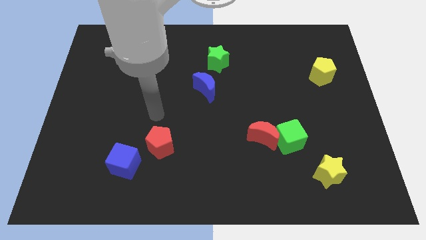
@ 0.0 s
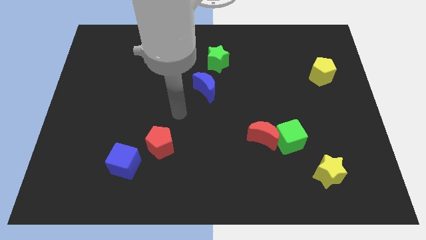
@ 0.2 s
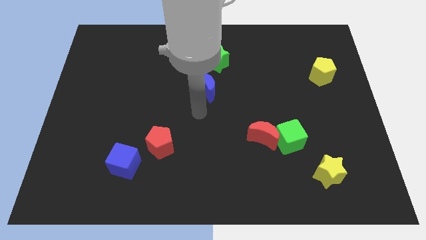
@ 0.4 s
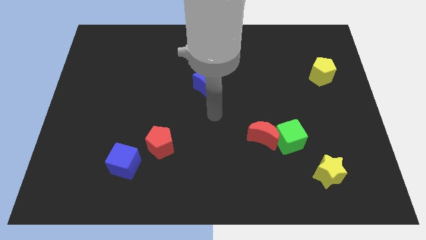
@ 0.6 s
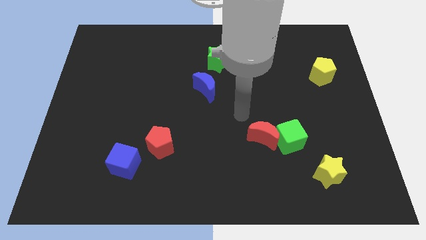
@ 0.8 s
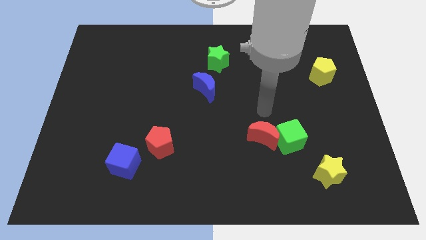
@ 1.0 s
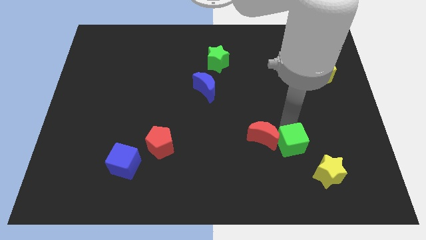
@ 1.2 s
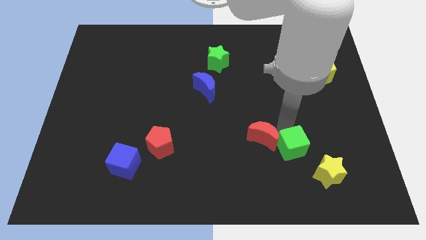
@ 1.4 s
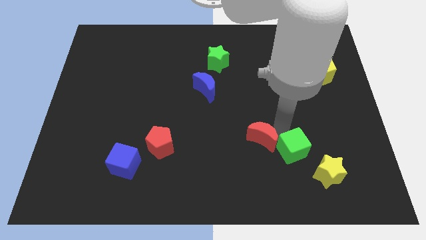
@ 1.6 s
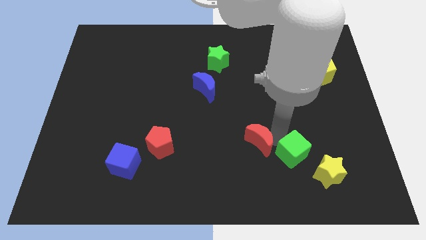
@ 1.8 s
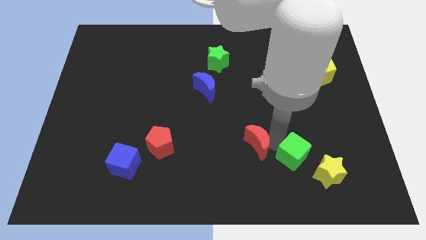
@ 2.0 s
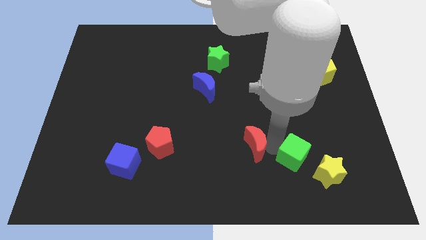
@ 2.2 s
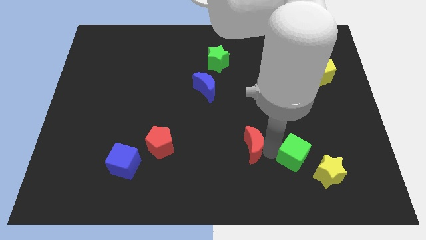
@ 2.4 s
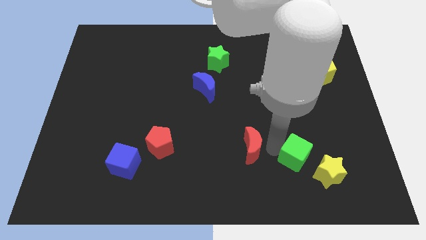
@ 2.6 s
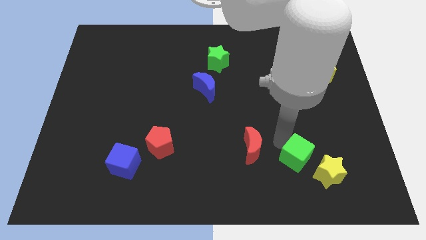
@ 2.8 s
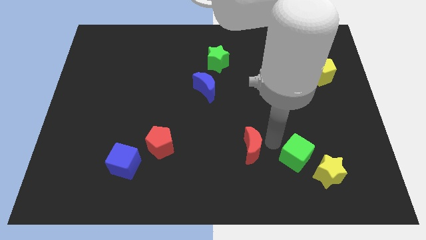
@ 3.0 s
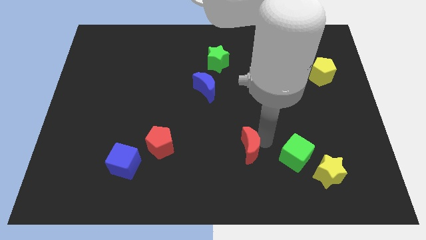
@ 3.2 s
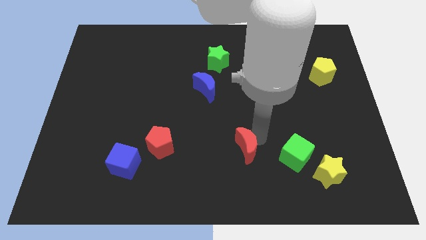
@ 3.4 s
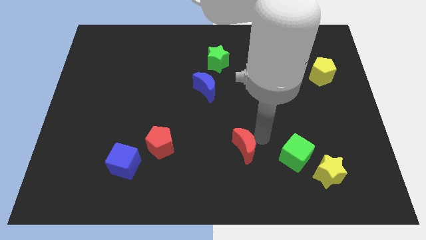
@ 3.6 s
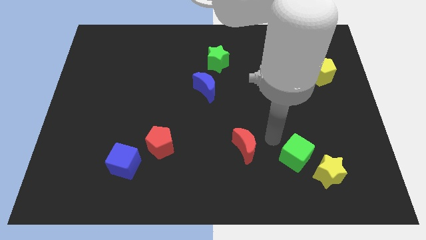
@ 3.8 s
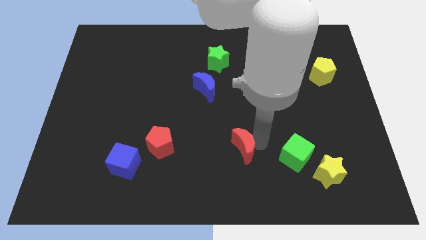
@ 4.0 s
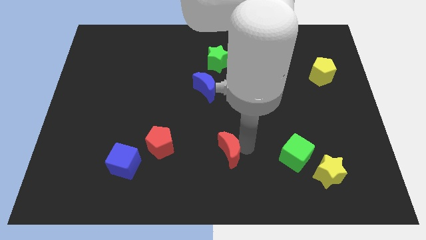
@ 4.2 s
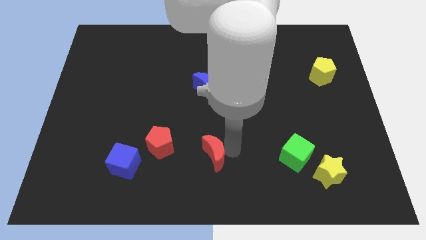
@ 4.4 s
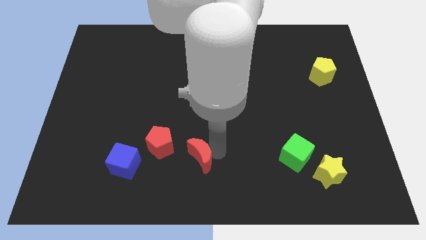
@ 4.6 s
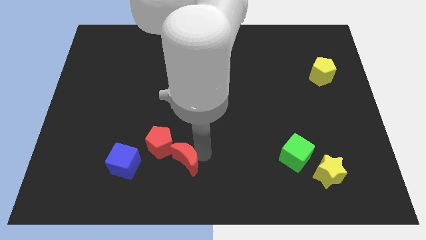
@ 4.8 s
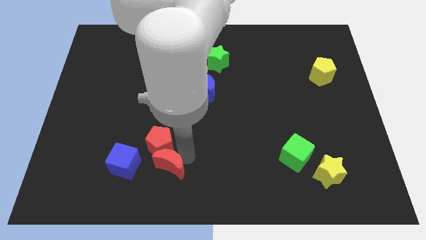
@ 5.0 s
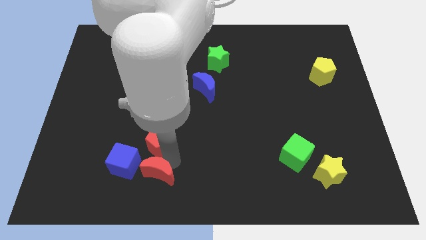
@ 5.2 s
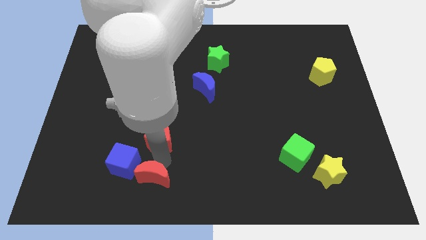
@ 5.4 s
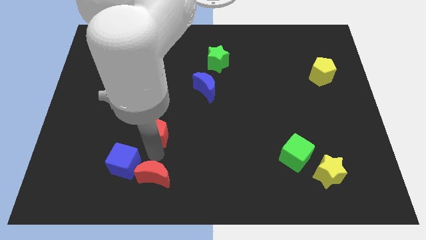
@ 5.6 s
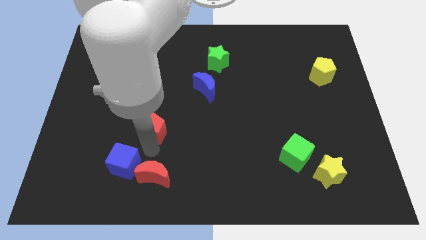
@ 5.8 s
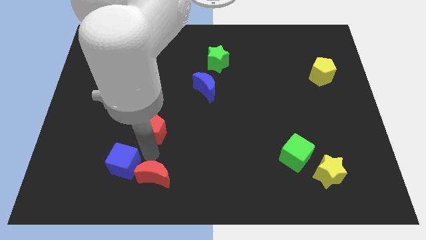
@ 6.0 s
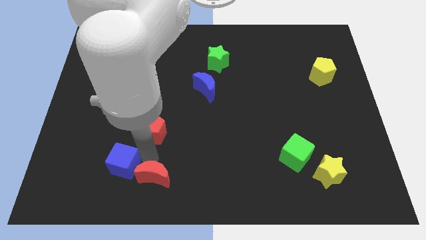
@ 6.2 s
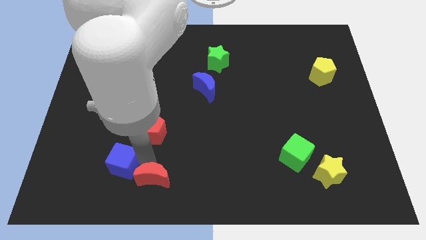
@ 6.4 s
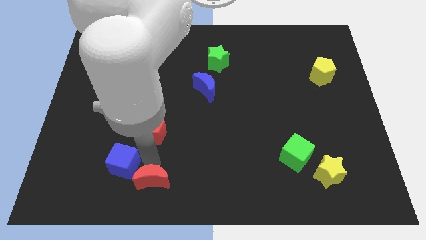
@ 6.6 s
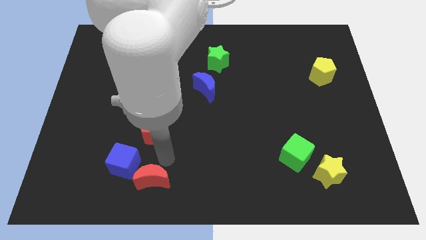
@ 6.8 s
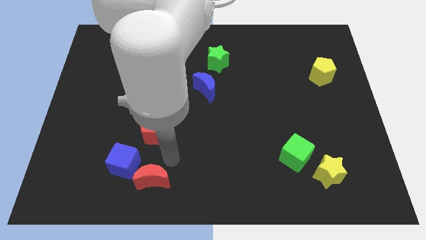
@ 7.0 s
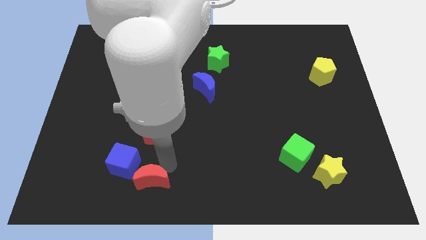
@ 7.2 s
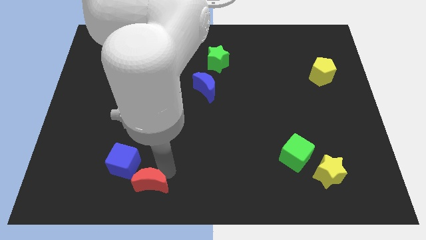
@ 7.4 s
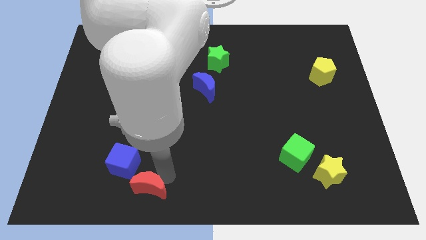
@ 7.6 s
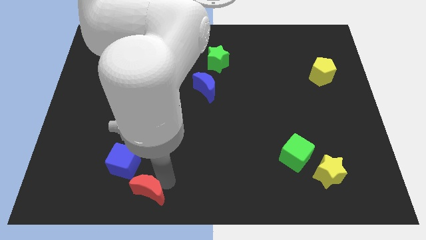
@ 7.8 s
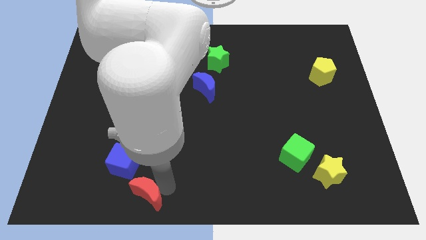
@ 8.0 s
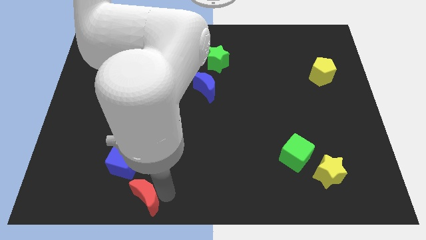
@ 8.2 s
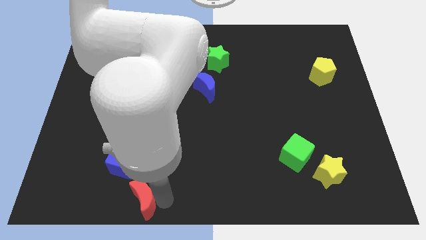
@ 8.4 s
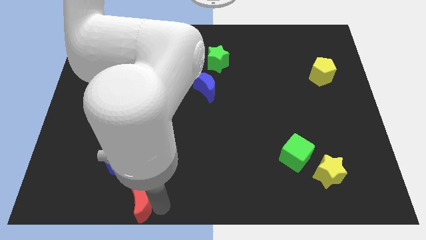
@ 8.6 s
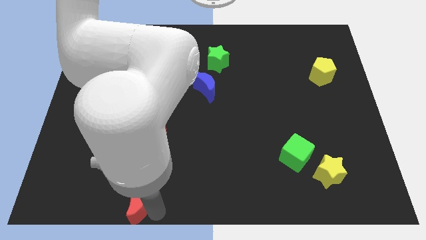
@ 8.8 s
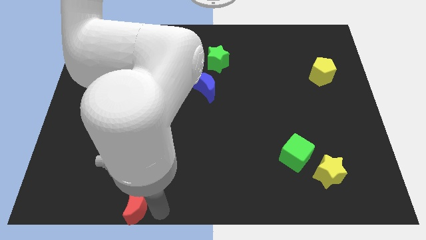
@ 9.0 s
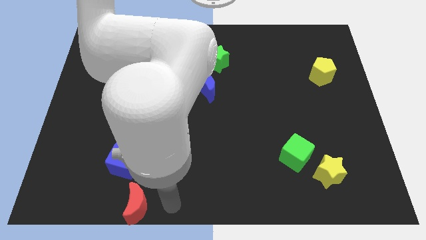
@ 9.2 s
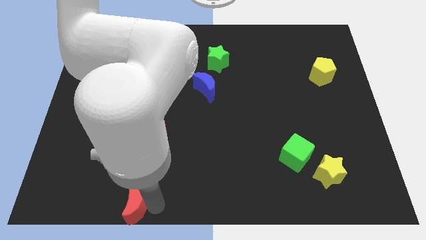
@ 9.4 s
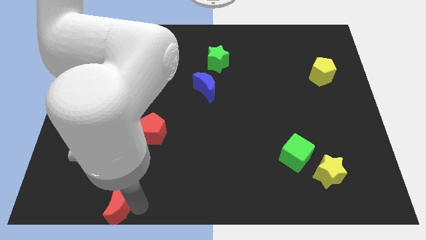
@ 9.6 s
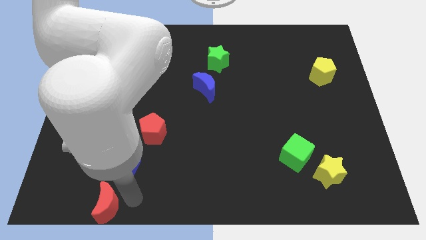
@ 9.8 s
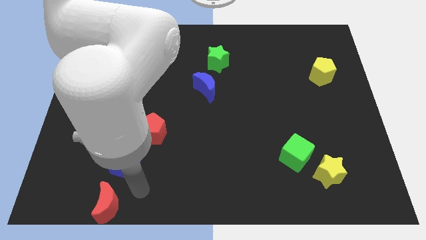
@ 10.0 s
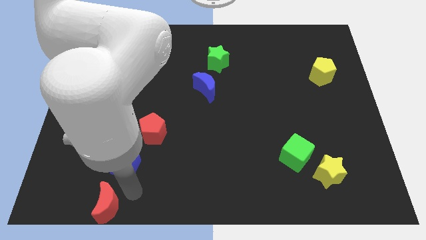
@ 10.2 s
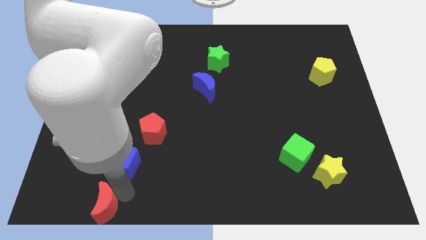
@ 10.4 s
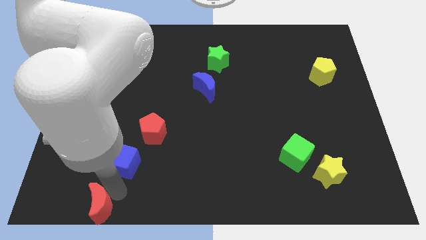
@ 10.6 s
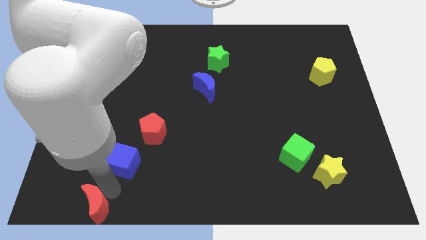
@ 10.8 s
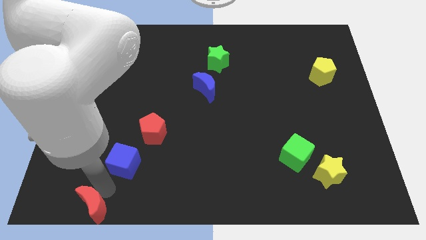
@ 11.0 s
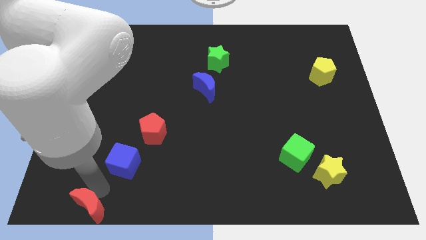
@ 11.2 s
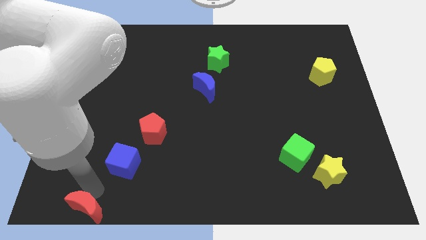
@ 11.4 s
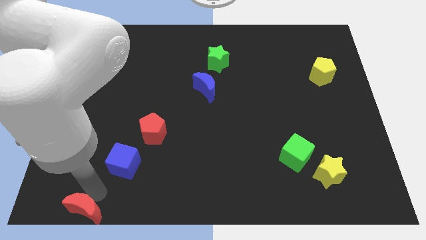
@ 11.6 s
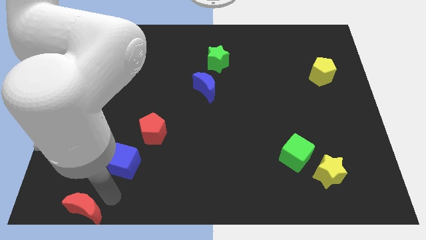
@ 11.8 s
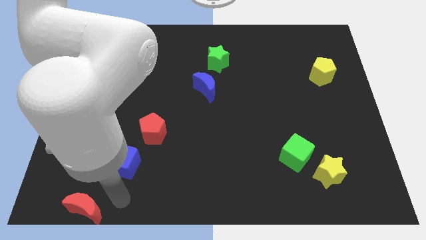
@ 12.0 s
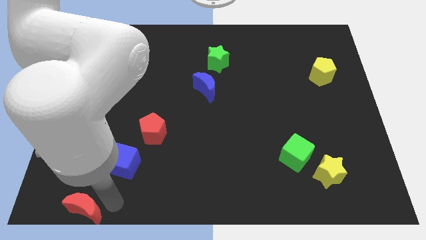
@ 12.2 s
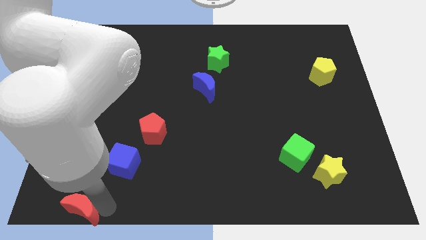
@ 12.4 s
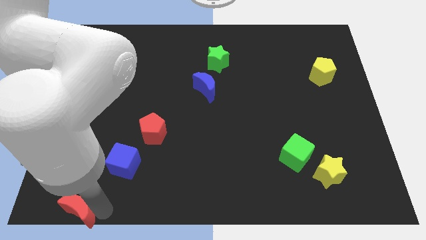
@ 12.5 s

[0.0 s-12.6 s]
put the red moon to the bottom left

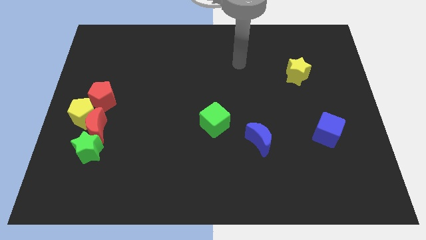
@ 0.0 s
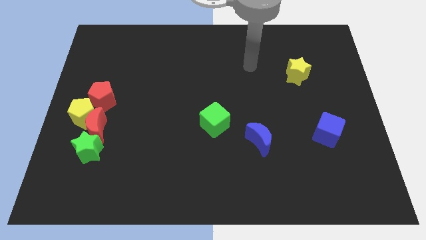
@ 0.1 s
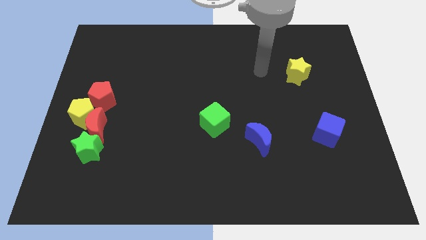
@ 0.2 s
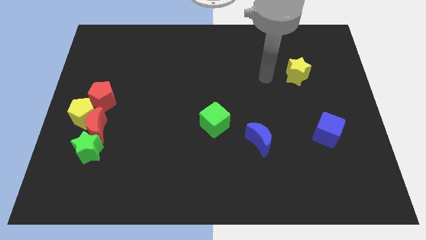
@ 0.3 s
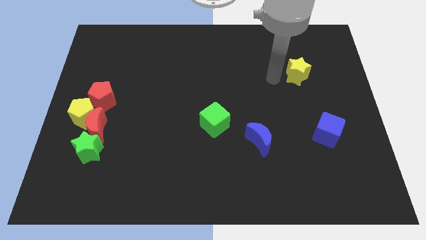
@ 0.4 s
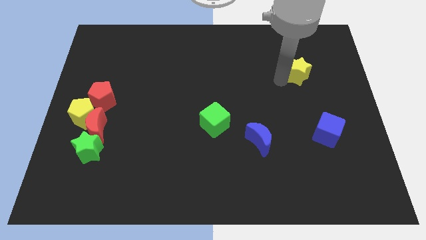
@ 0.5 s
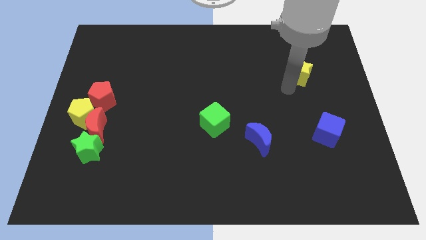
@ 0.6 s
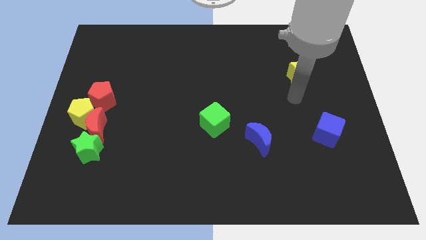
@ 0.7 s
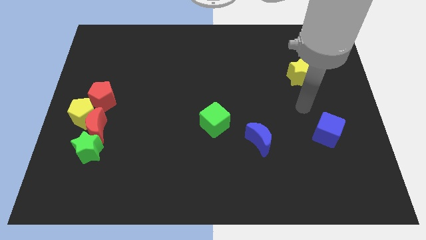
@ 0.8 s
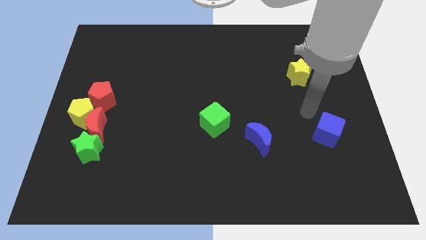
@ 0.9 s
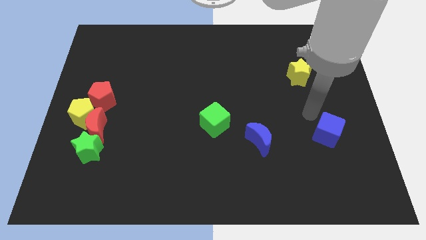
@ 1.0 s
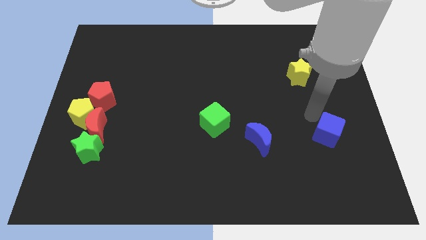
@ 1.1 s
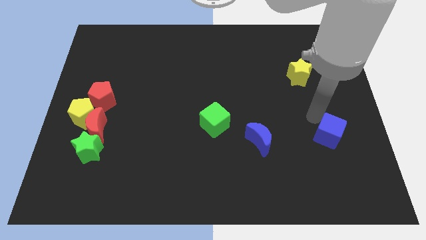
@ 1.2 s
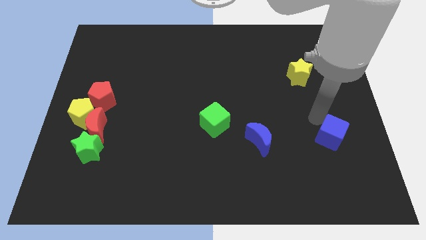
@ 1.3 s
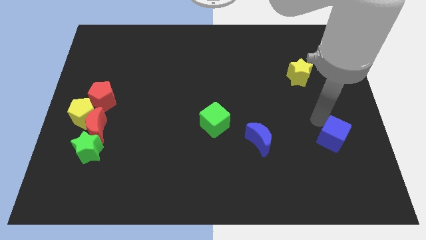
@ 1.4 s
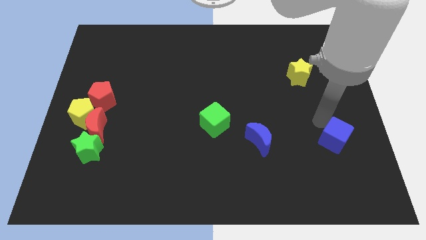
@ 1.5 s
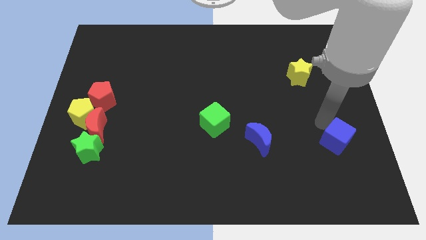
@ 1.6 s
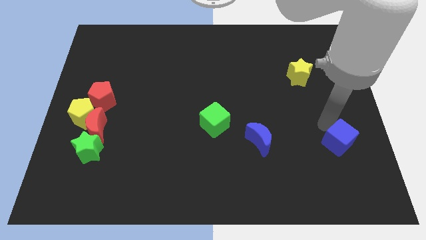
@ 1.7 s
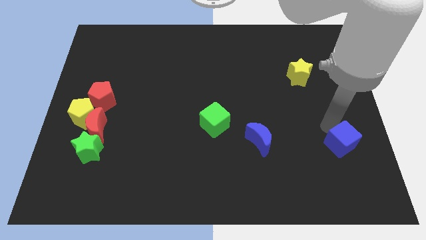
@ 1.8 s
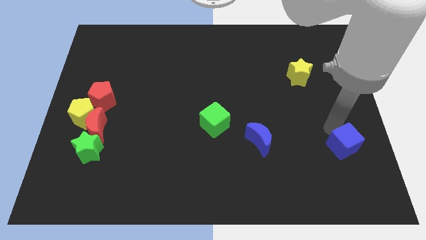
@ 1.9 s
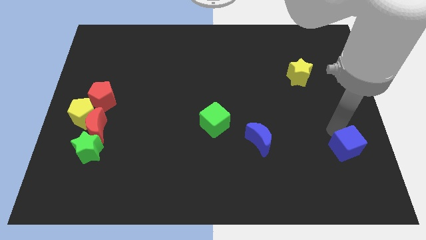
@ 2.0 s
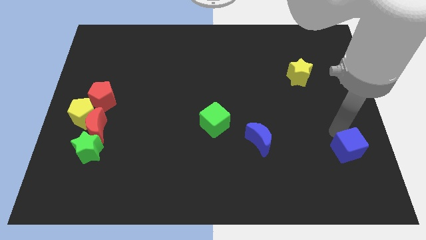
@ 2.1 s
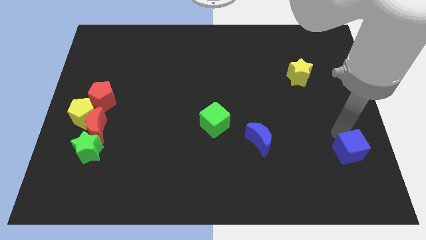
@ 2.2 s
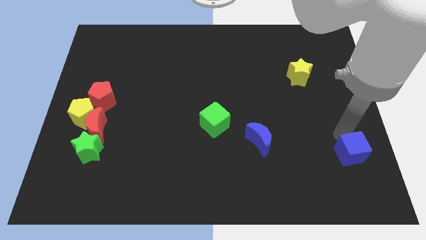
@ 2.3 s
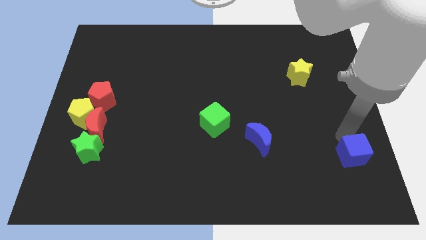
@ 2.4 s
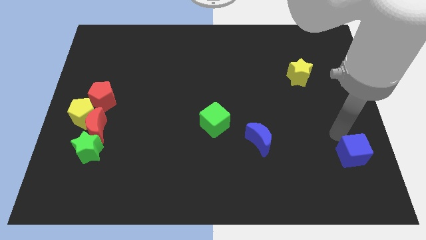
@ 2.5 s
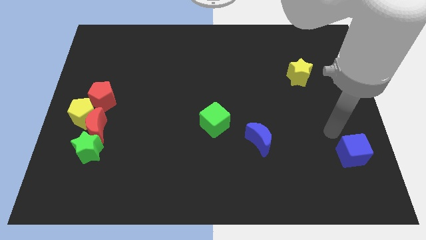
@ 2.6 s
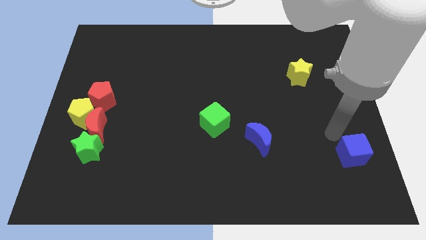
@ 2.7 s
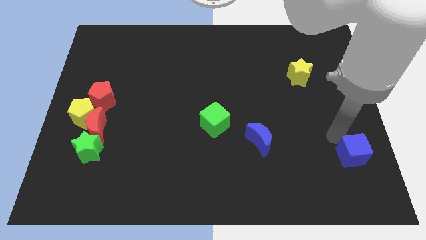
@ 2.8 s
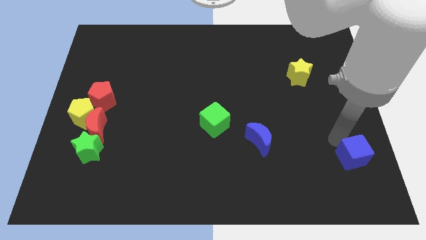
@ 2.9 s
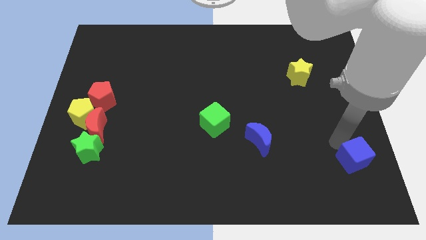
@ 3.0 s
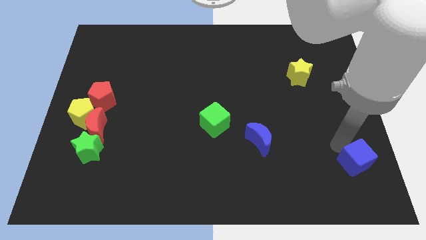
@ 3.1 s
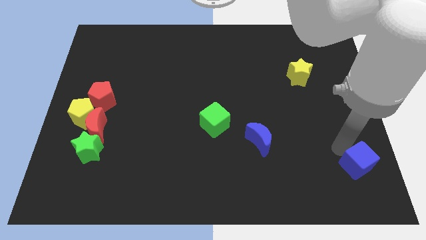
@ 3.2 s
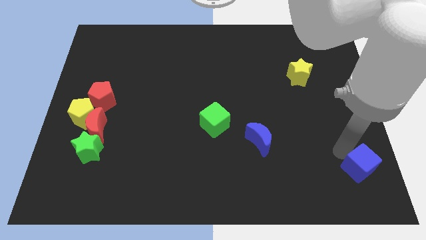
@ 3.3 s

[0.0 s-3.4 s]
move the blue cube to the bottom right
